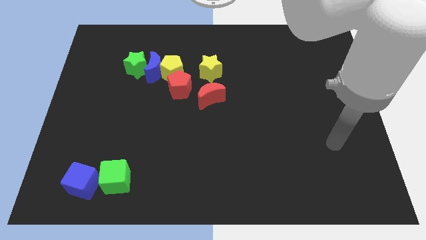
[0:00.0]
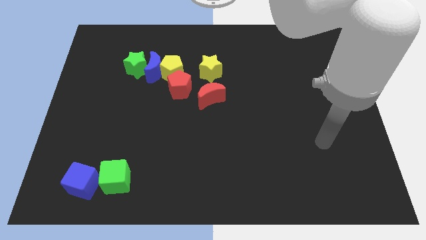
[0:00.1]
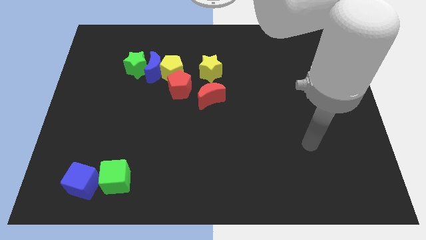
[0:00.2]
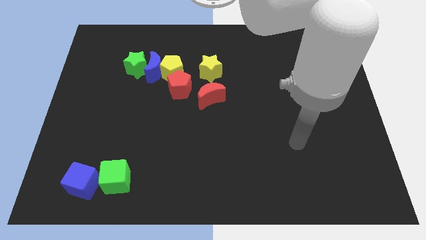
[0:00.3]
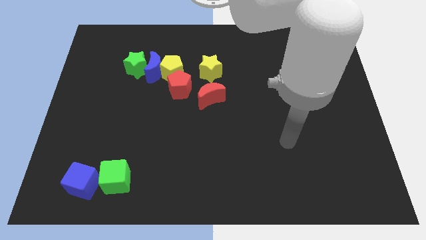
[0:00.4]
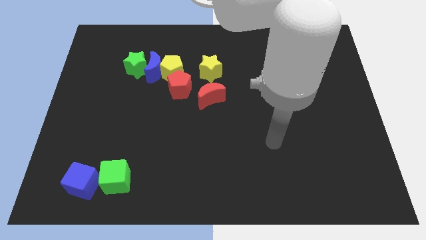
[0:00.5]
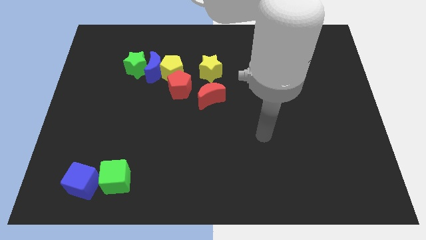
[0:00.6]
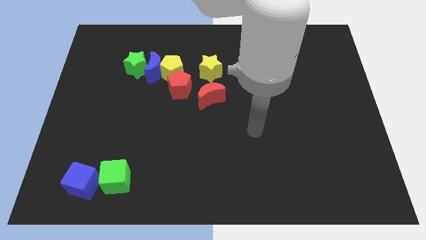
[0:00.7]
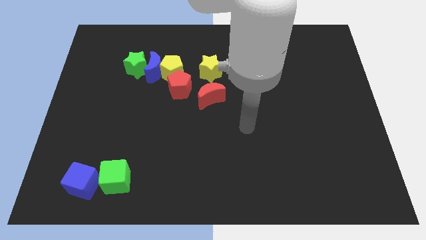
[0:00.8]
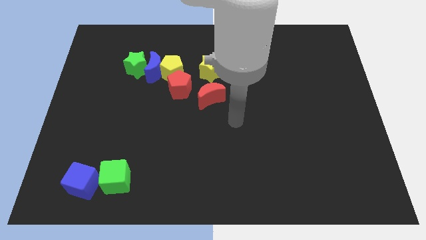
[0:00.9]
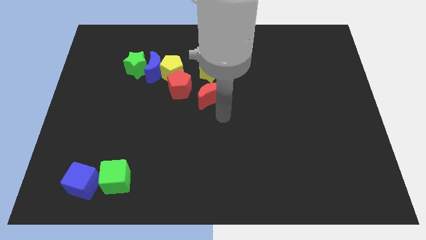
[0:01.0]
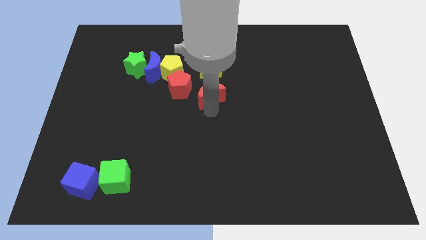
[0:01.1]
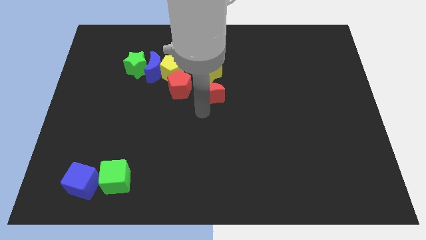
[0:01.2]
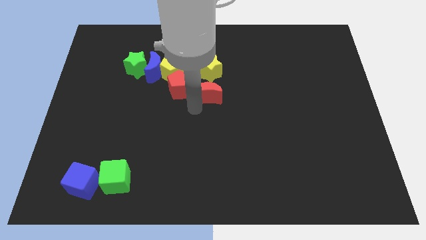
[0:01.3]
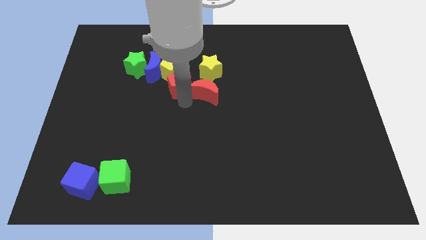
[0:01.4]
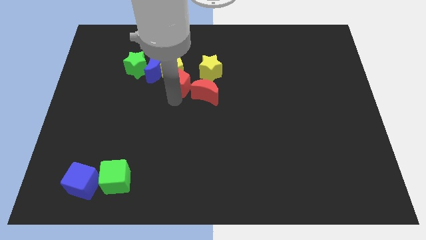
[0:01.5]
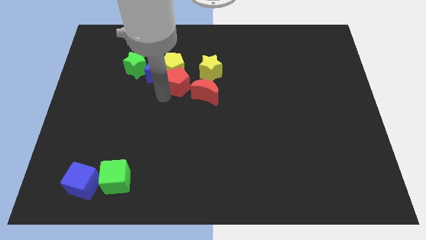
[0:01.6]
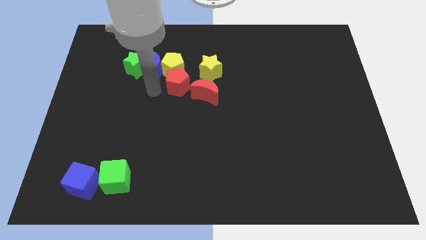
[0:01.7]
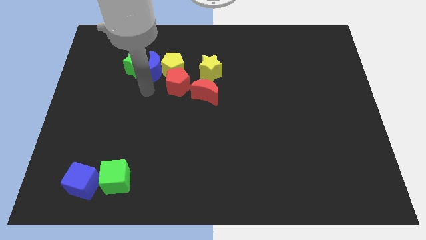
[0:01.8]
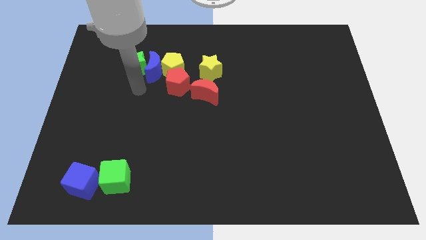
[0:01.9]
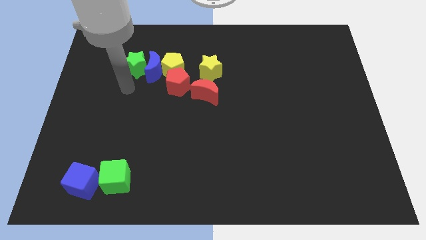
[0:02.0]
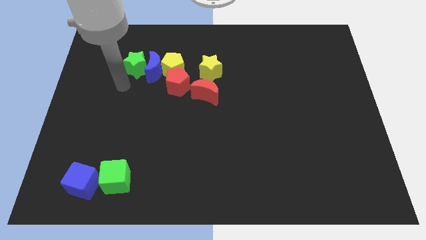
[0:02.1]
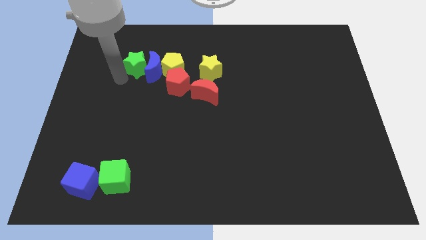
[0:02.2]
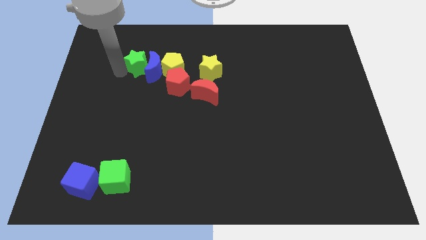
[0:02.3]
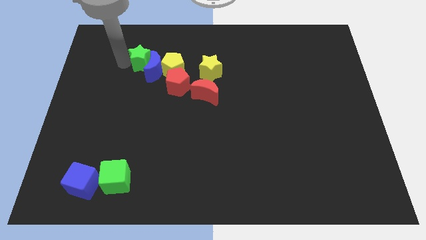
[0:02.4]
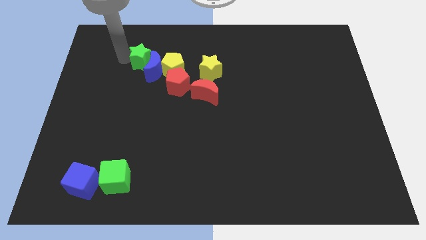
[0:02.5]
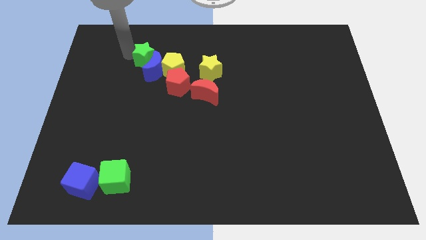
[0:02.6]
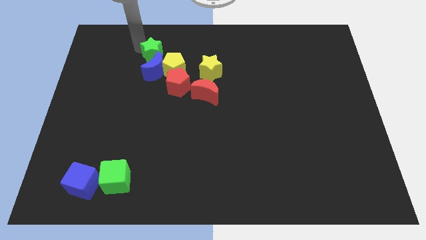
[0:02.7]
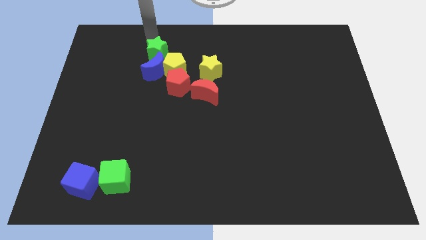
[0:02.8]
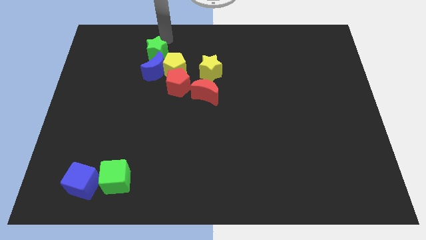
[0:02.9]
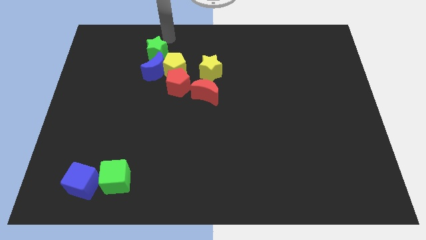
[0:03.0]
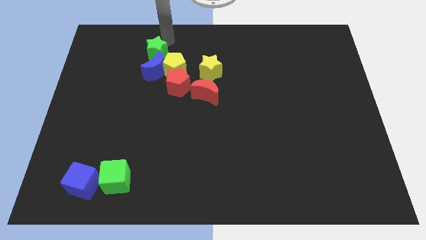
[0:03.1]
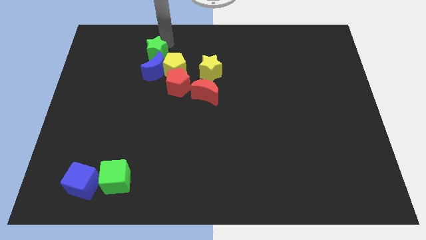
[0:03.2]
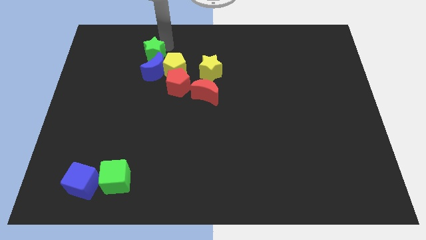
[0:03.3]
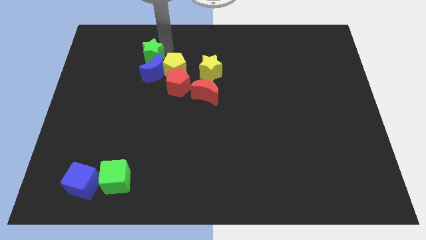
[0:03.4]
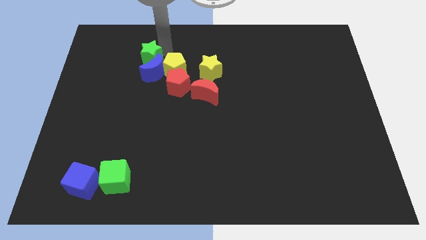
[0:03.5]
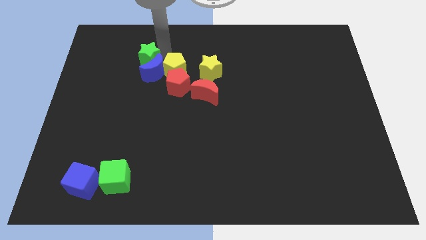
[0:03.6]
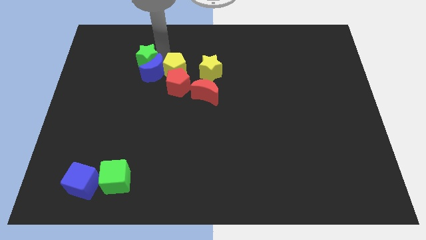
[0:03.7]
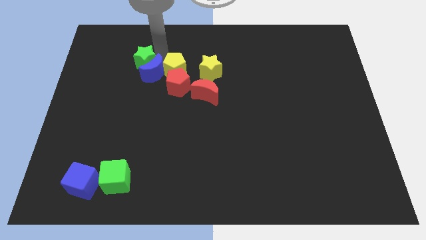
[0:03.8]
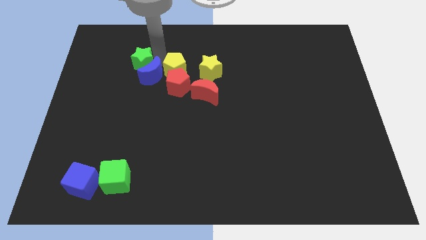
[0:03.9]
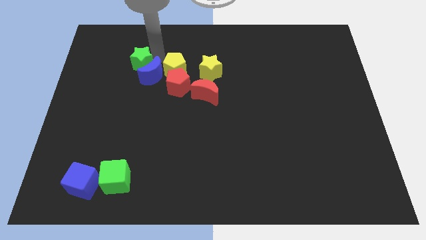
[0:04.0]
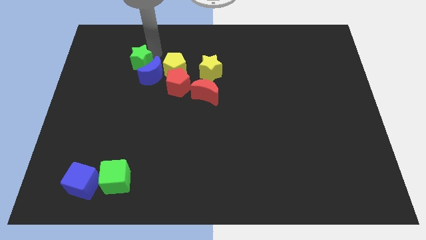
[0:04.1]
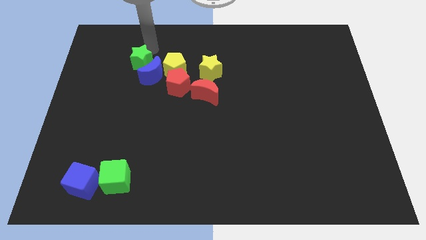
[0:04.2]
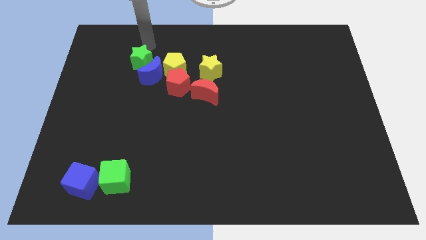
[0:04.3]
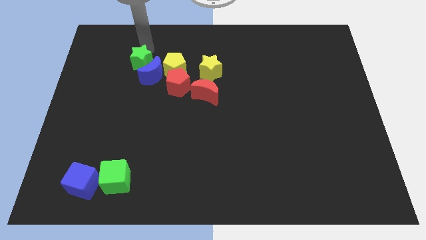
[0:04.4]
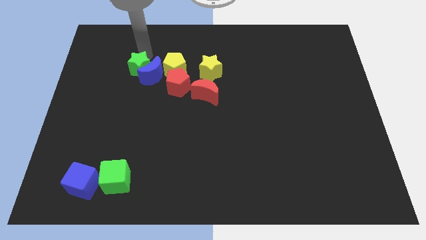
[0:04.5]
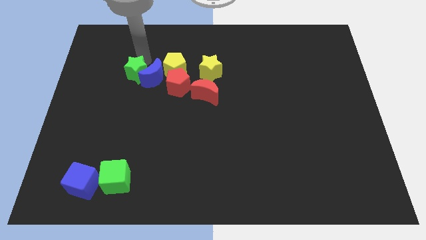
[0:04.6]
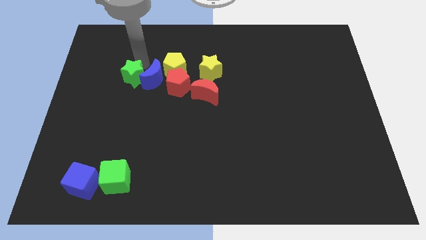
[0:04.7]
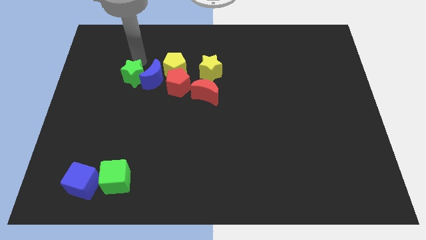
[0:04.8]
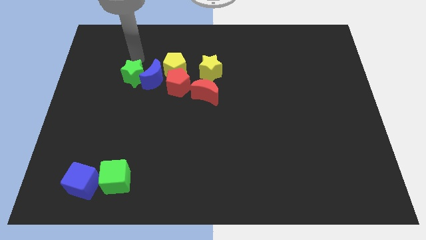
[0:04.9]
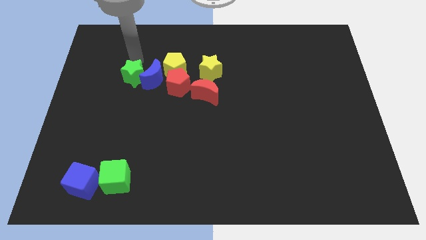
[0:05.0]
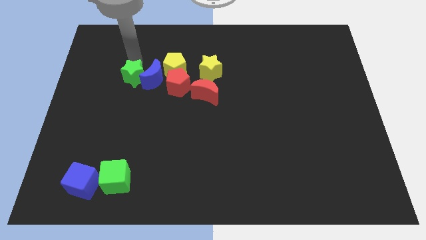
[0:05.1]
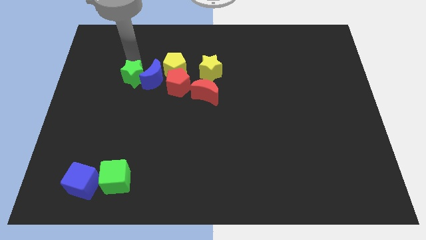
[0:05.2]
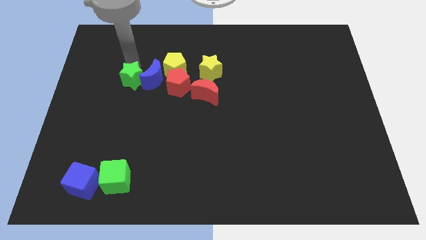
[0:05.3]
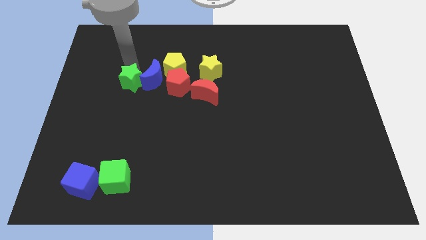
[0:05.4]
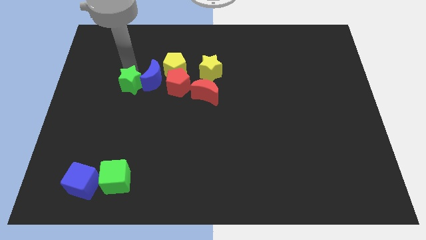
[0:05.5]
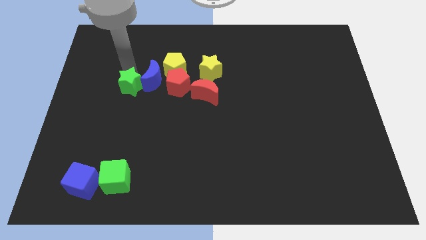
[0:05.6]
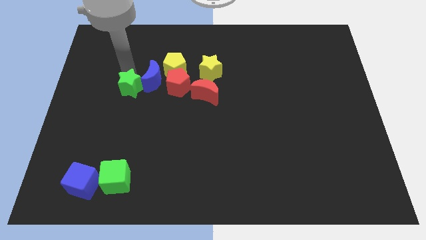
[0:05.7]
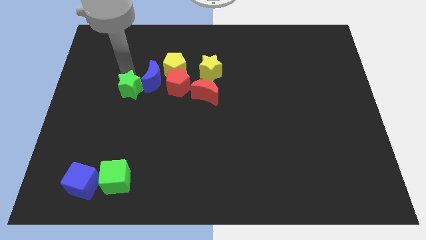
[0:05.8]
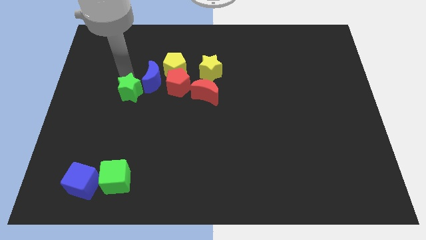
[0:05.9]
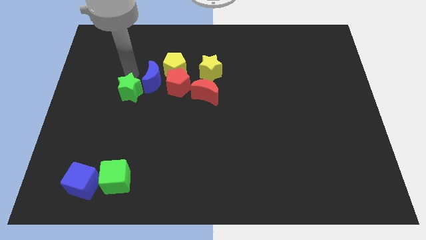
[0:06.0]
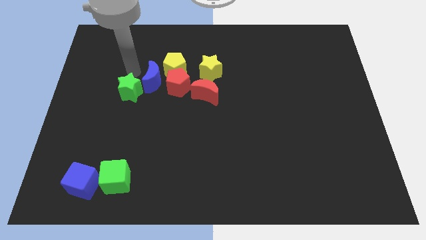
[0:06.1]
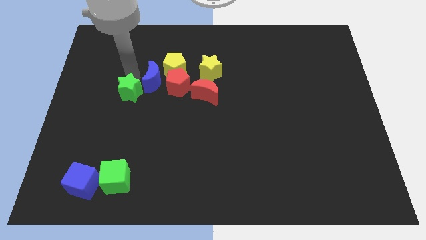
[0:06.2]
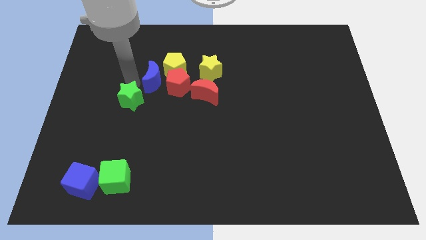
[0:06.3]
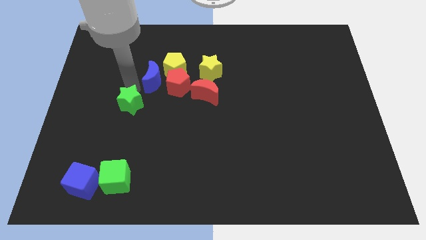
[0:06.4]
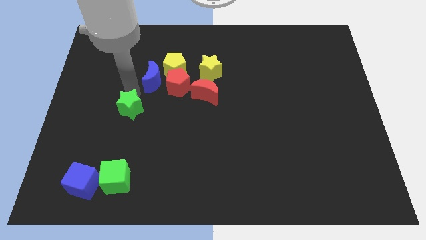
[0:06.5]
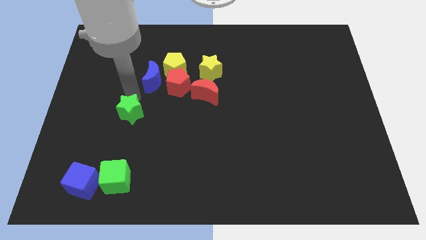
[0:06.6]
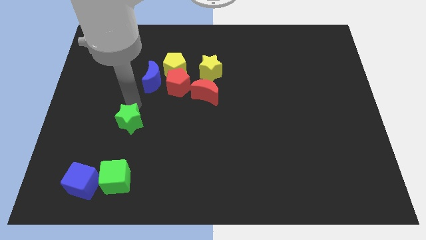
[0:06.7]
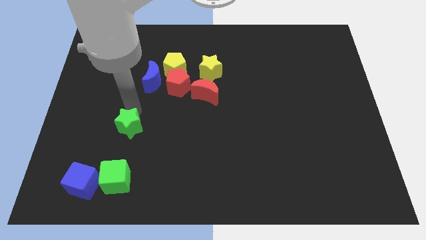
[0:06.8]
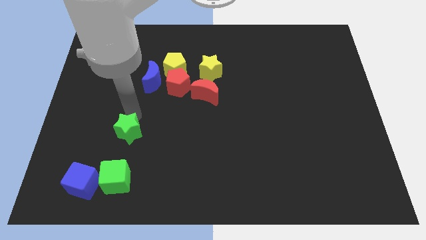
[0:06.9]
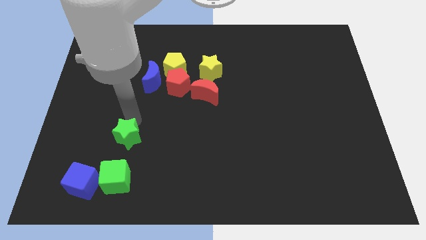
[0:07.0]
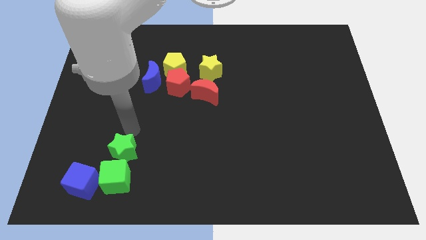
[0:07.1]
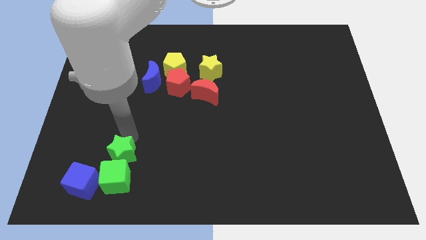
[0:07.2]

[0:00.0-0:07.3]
push the green star close to the green cube
